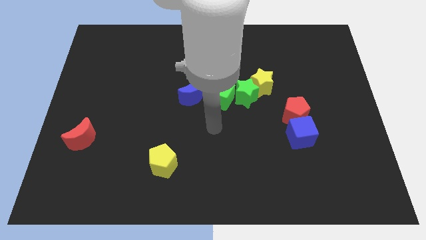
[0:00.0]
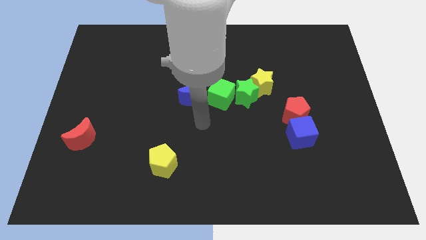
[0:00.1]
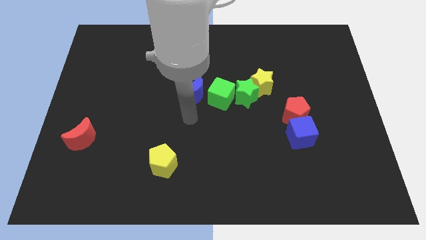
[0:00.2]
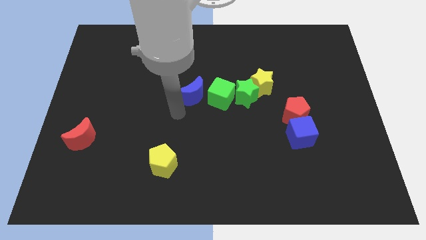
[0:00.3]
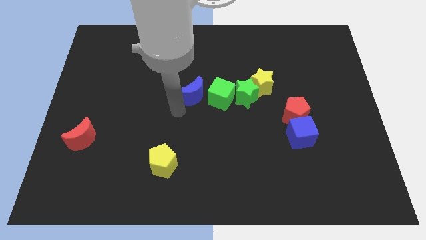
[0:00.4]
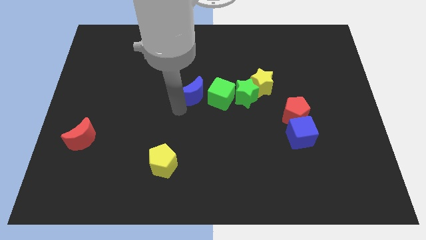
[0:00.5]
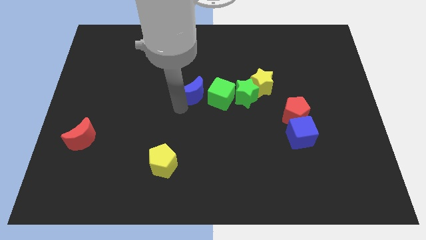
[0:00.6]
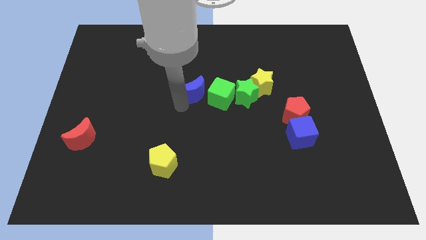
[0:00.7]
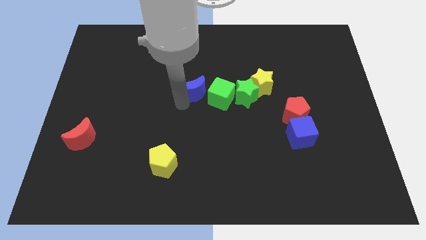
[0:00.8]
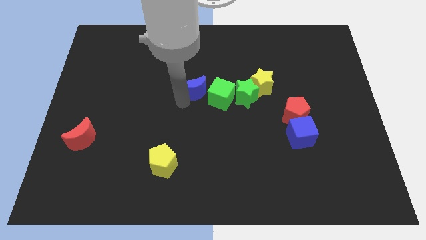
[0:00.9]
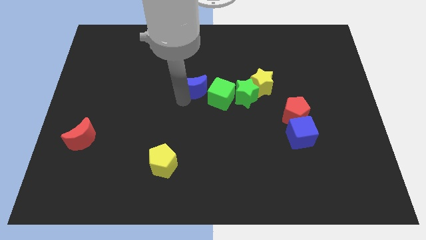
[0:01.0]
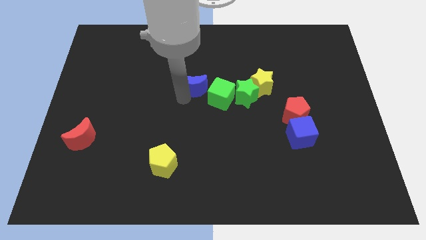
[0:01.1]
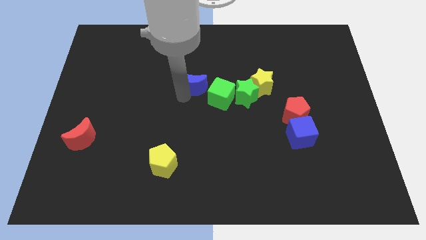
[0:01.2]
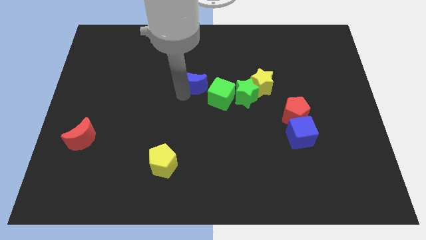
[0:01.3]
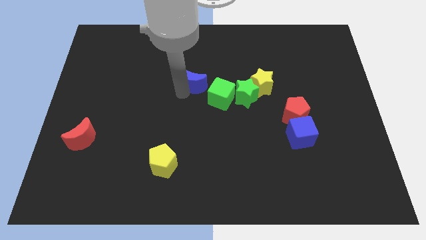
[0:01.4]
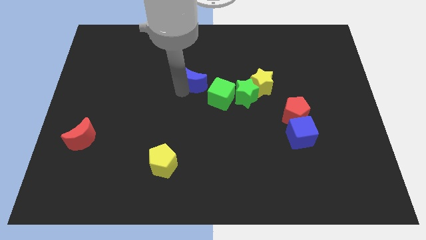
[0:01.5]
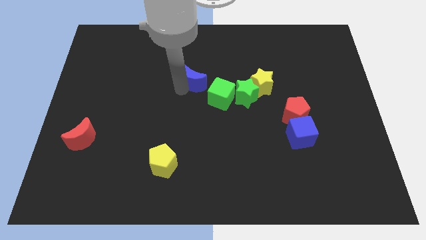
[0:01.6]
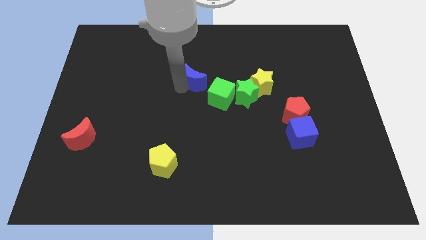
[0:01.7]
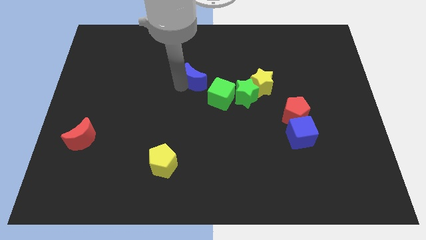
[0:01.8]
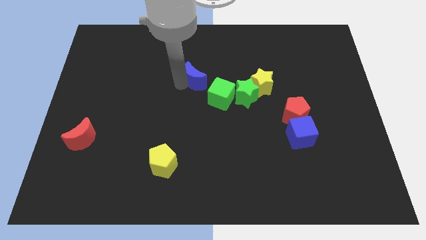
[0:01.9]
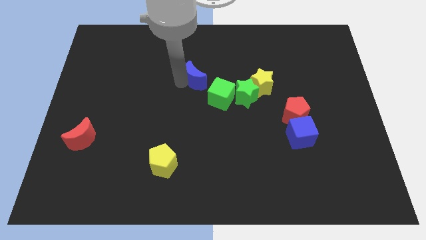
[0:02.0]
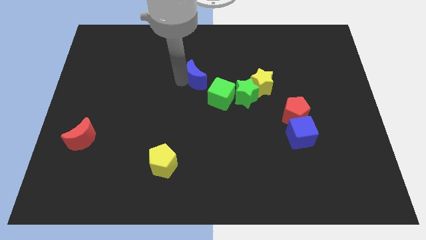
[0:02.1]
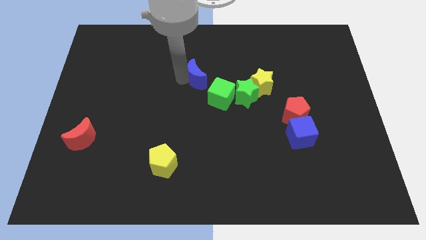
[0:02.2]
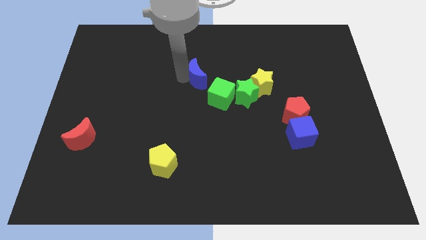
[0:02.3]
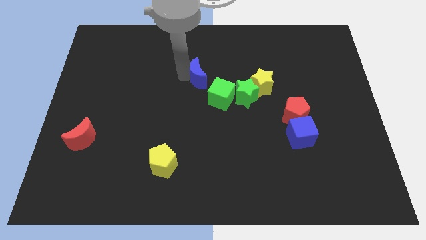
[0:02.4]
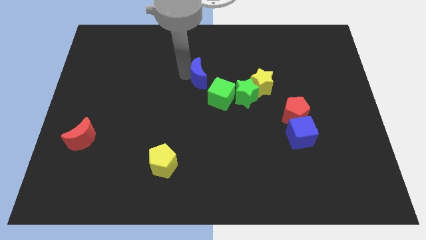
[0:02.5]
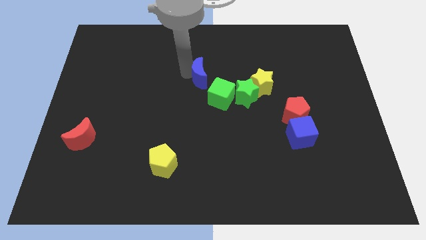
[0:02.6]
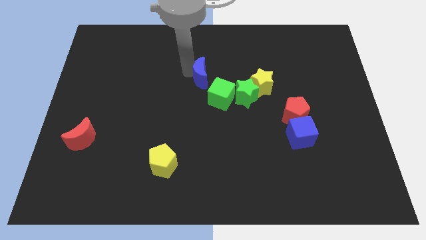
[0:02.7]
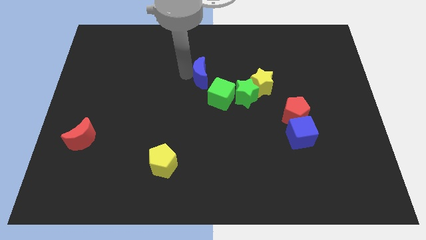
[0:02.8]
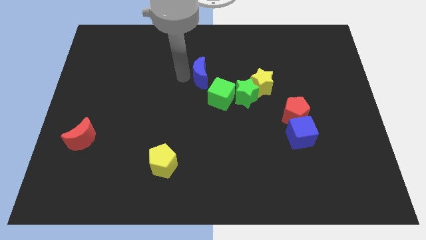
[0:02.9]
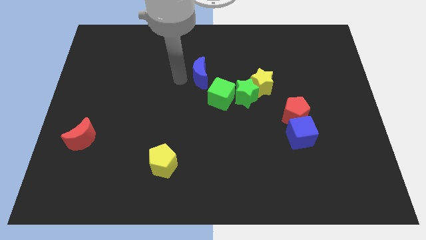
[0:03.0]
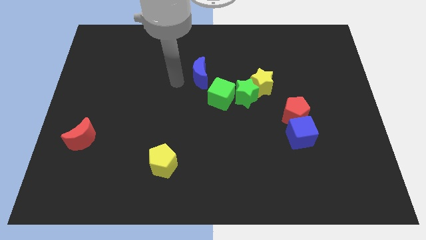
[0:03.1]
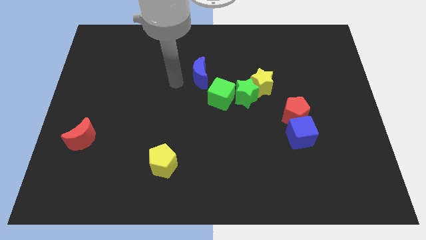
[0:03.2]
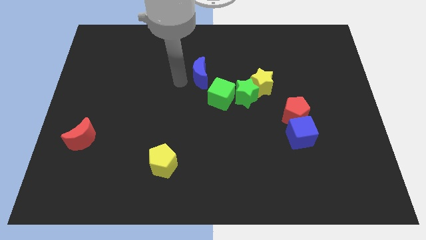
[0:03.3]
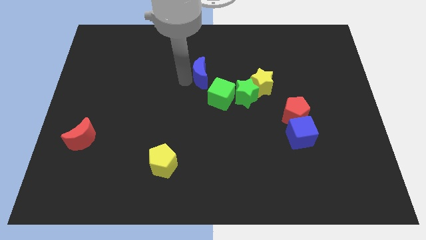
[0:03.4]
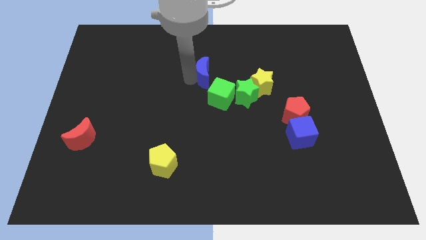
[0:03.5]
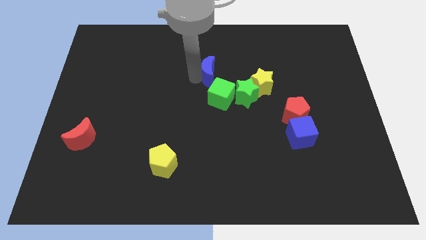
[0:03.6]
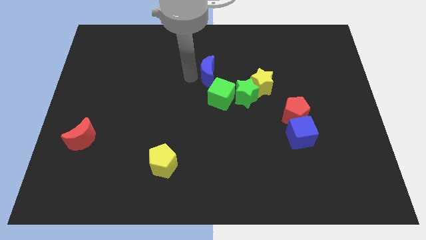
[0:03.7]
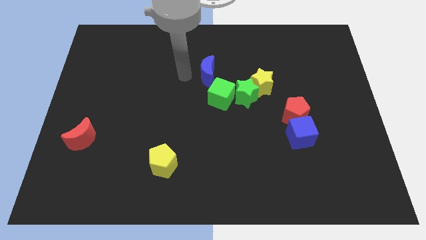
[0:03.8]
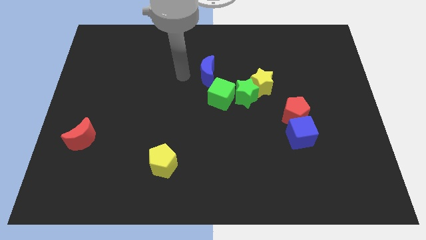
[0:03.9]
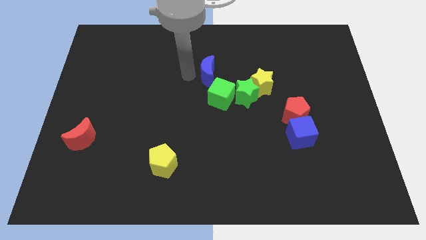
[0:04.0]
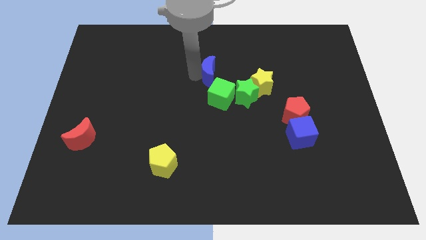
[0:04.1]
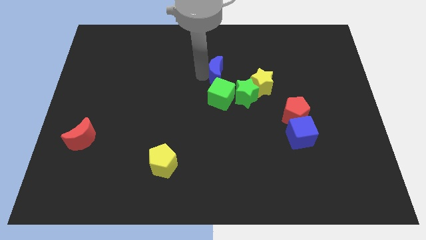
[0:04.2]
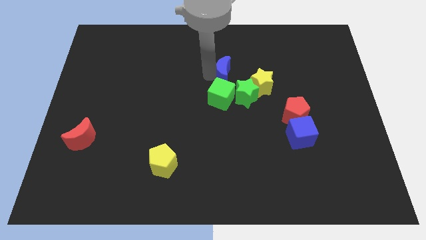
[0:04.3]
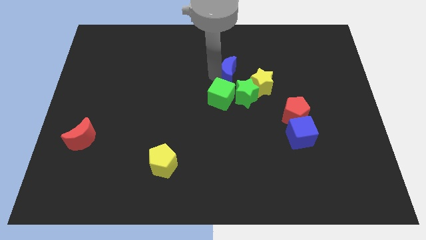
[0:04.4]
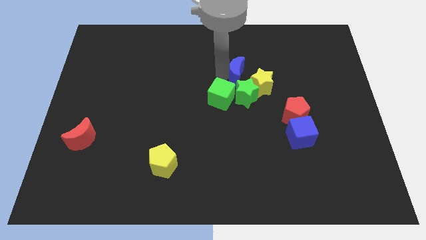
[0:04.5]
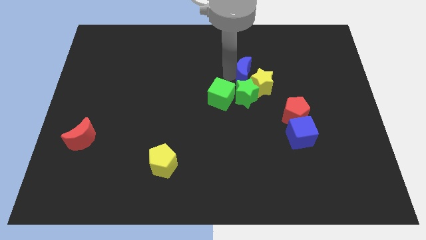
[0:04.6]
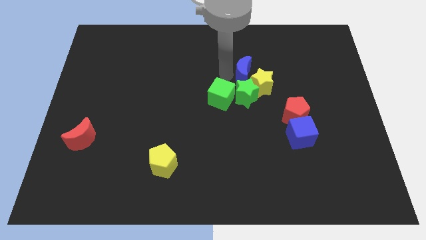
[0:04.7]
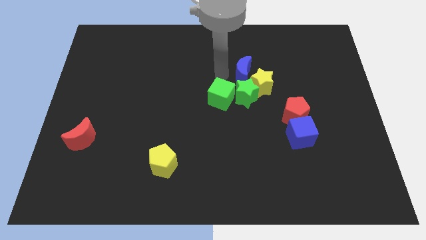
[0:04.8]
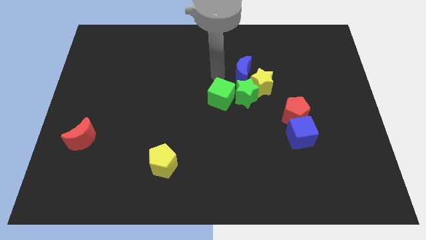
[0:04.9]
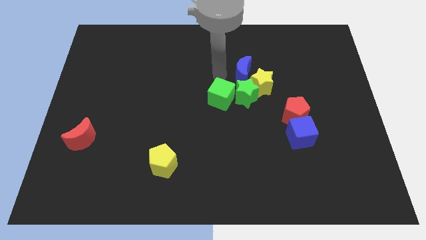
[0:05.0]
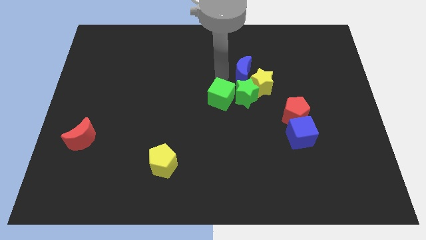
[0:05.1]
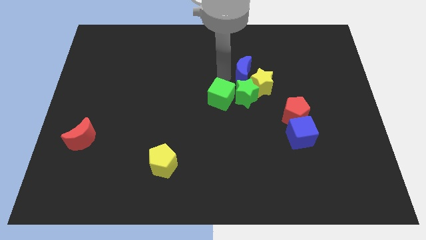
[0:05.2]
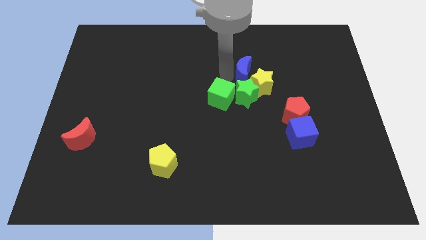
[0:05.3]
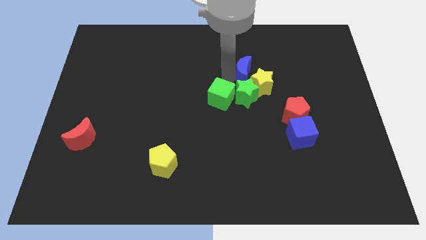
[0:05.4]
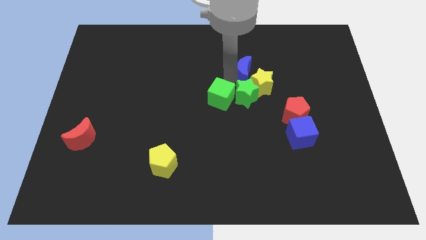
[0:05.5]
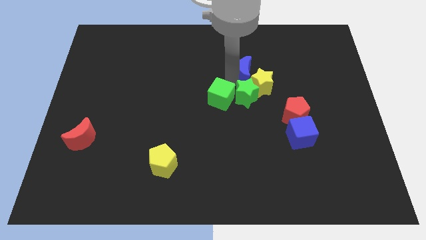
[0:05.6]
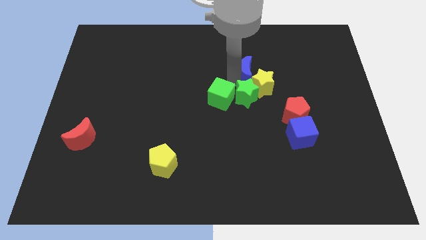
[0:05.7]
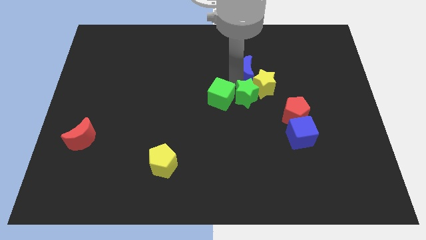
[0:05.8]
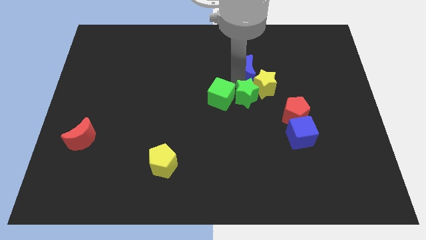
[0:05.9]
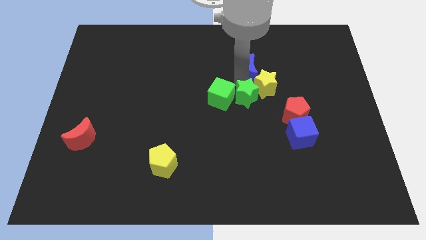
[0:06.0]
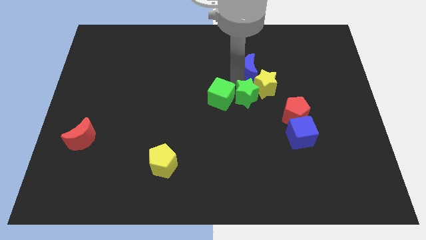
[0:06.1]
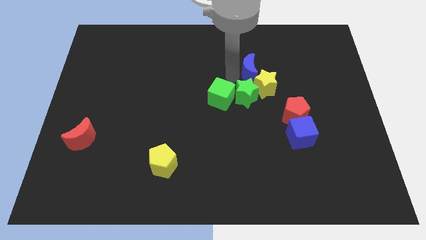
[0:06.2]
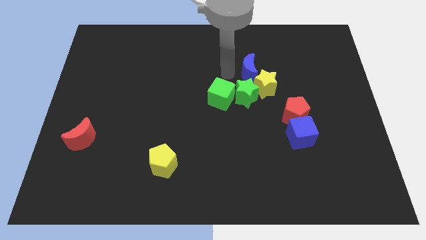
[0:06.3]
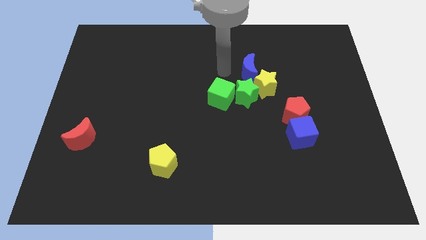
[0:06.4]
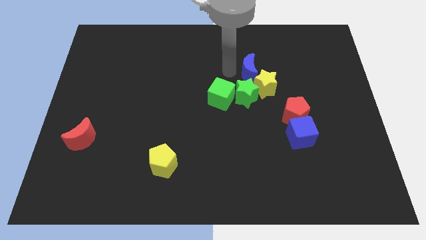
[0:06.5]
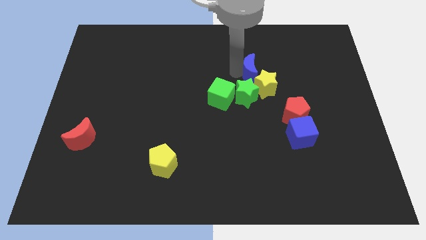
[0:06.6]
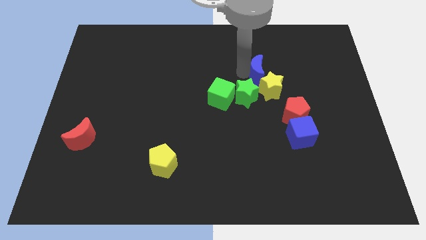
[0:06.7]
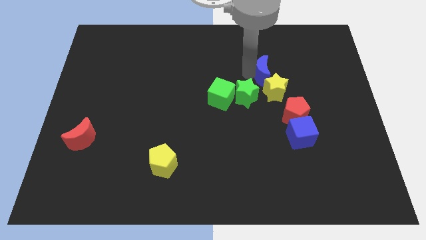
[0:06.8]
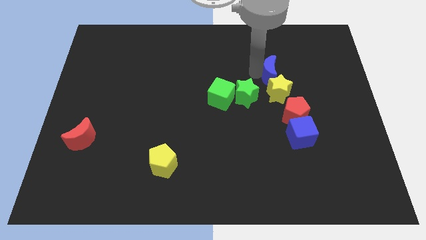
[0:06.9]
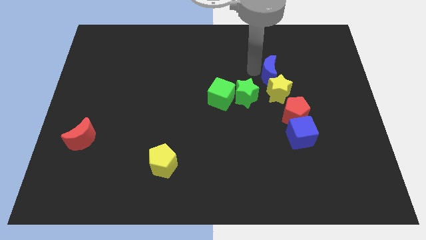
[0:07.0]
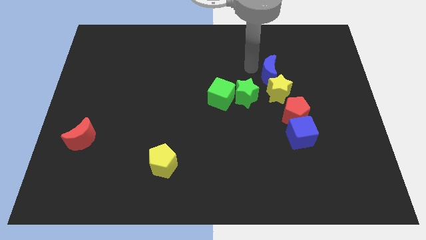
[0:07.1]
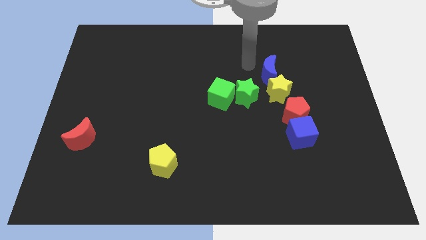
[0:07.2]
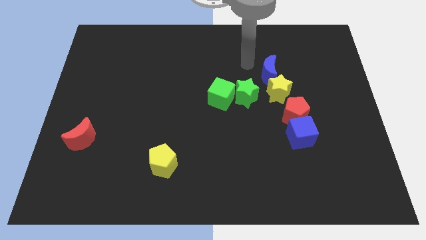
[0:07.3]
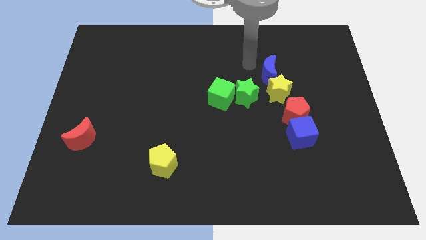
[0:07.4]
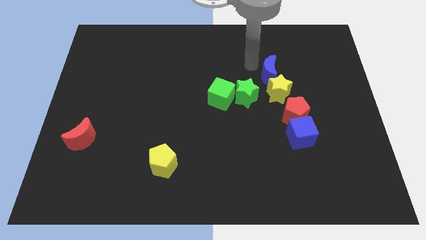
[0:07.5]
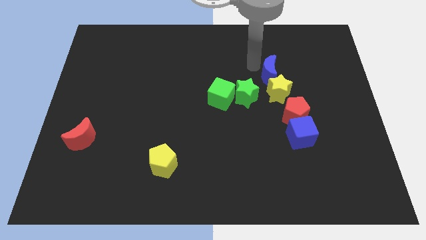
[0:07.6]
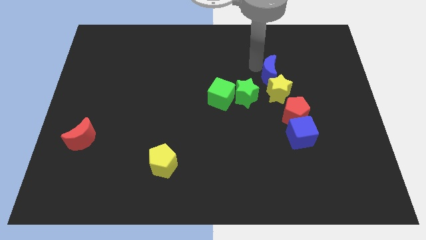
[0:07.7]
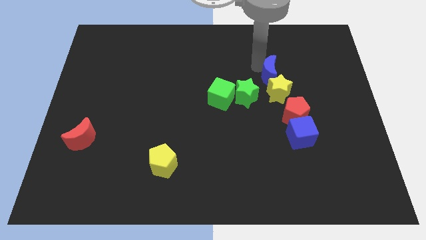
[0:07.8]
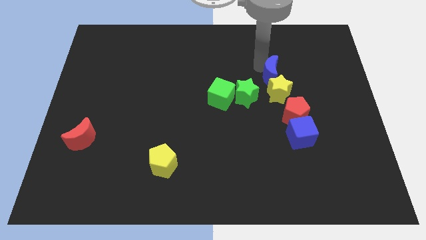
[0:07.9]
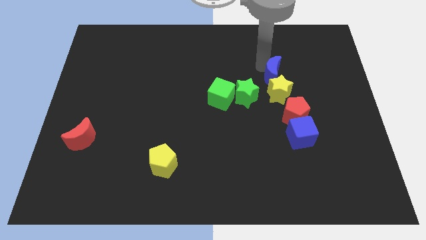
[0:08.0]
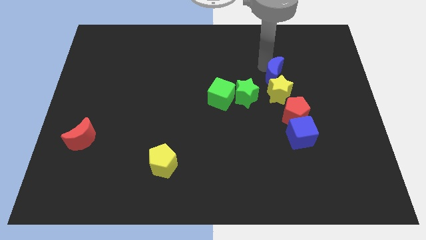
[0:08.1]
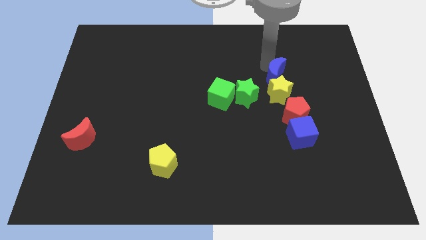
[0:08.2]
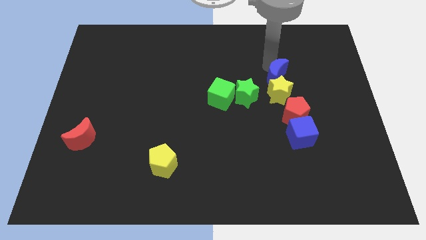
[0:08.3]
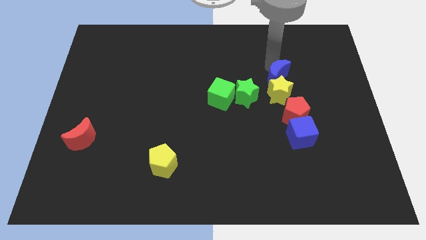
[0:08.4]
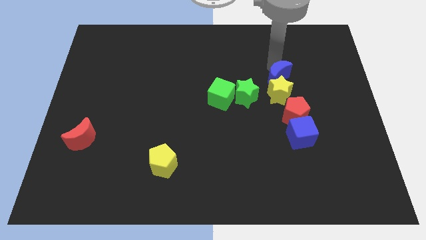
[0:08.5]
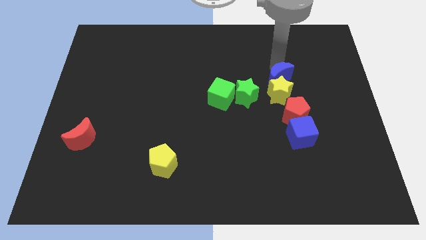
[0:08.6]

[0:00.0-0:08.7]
move the blue moon right
